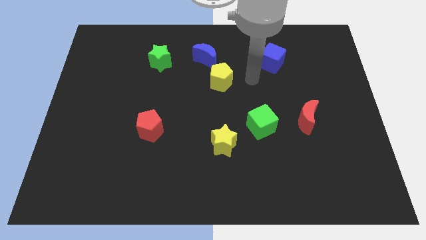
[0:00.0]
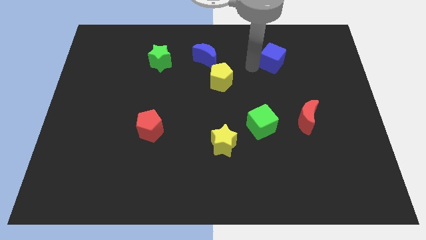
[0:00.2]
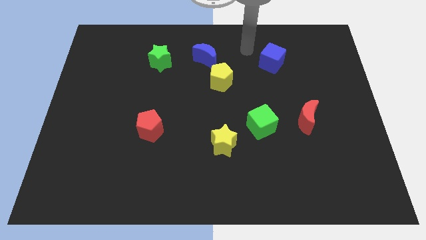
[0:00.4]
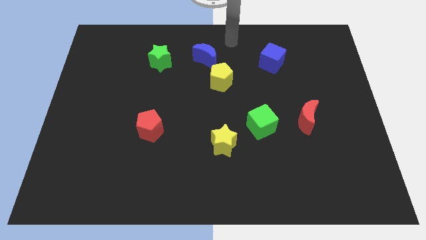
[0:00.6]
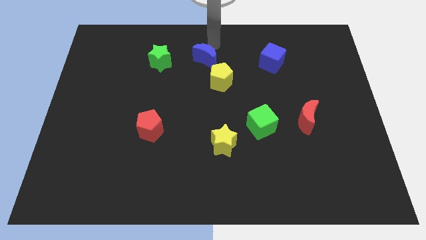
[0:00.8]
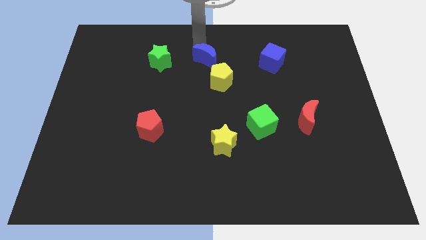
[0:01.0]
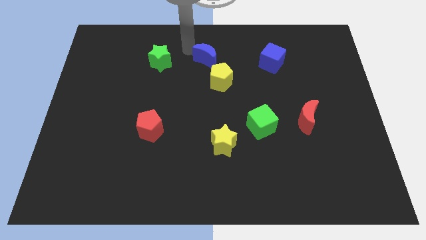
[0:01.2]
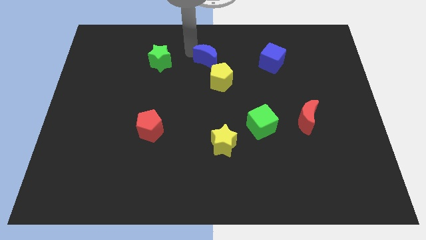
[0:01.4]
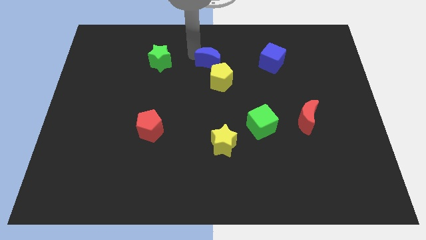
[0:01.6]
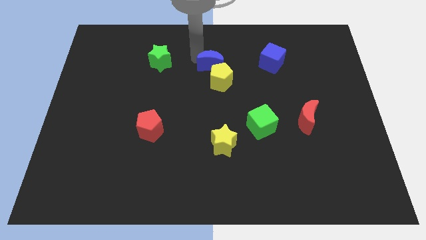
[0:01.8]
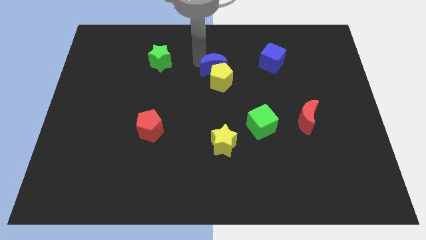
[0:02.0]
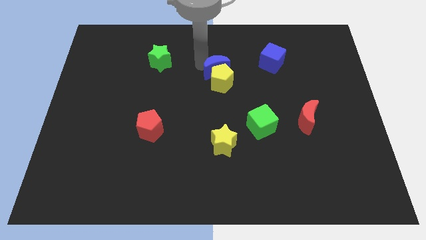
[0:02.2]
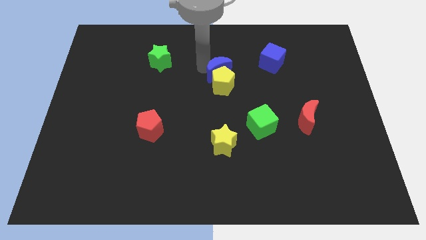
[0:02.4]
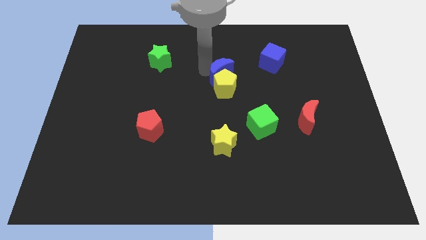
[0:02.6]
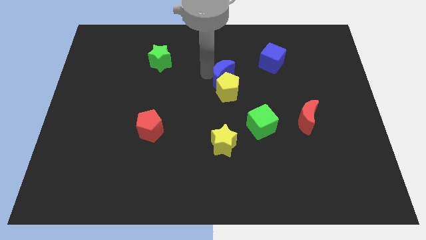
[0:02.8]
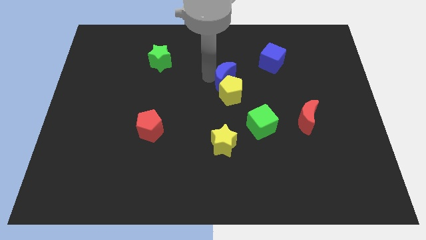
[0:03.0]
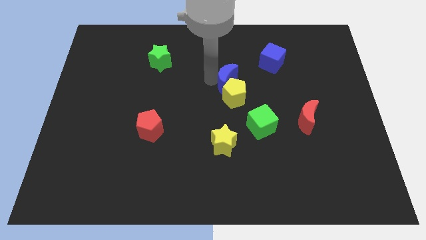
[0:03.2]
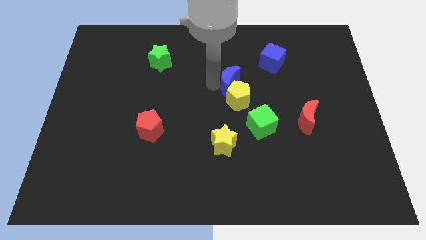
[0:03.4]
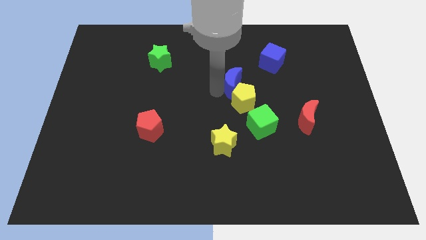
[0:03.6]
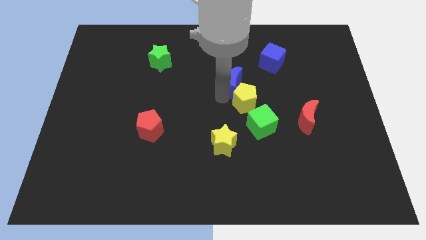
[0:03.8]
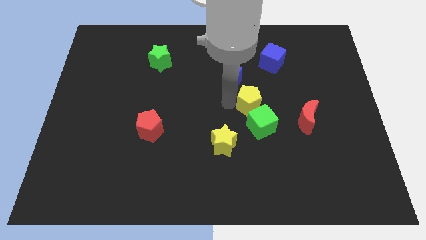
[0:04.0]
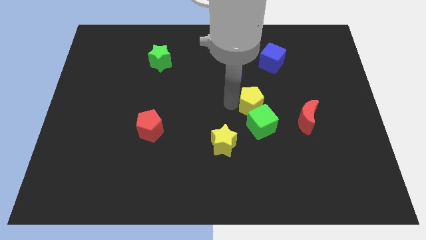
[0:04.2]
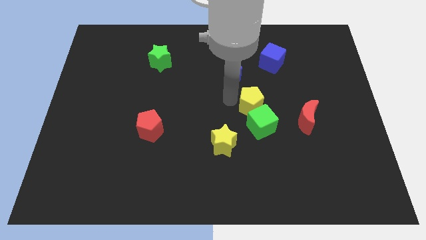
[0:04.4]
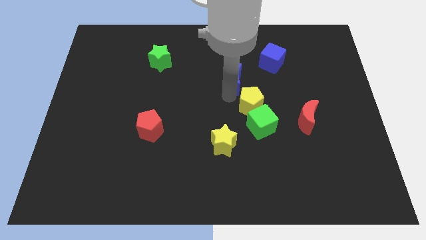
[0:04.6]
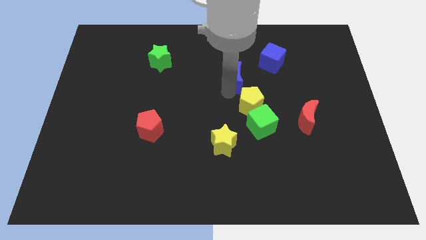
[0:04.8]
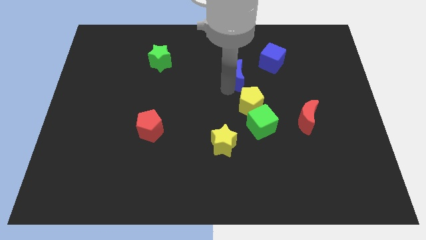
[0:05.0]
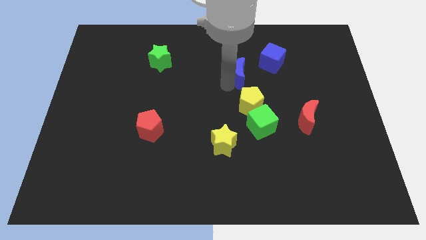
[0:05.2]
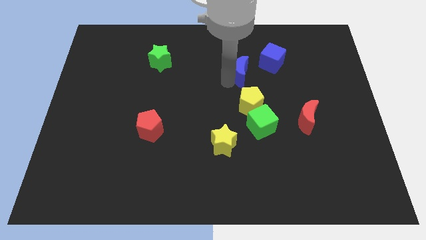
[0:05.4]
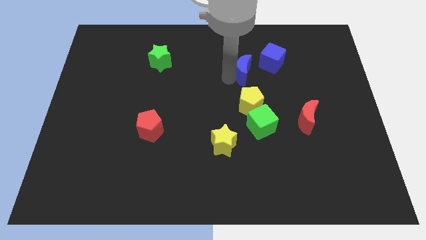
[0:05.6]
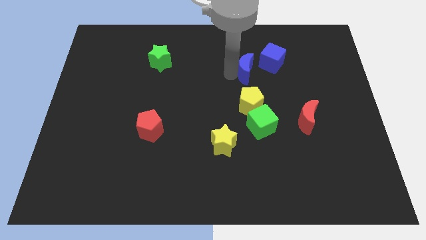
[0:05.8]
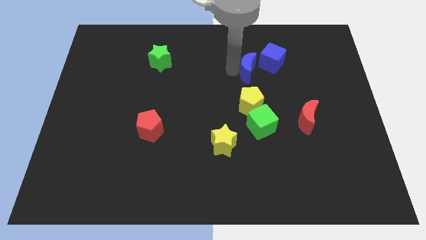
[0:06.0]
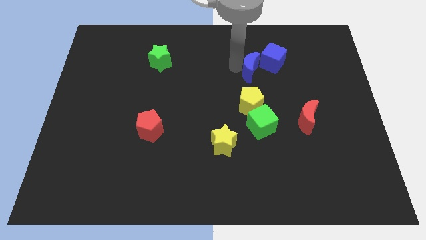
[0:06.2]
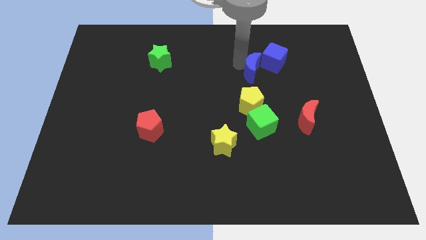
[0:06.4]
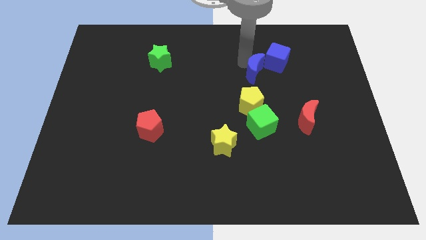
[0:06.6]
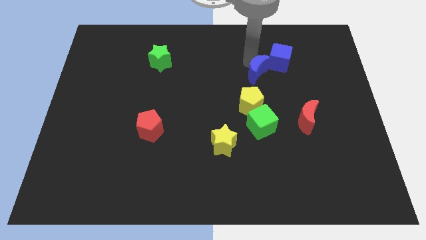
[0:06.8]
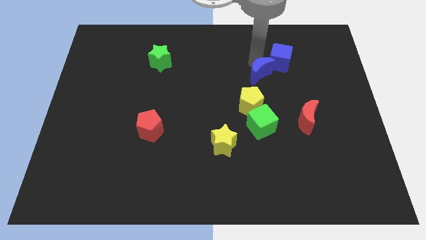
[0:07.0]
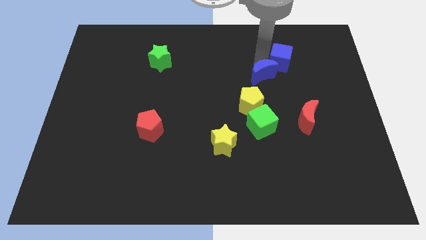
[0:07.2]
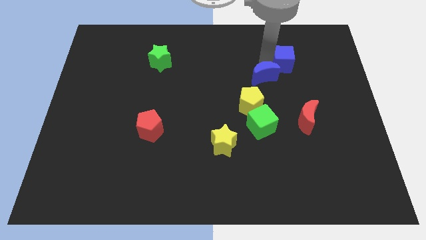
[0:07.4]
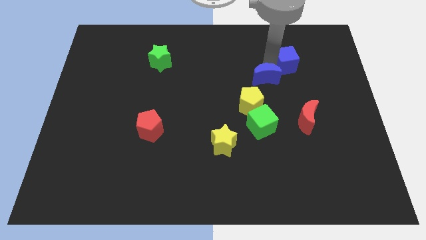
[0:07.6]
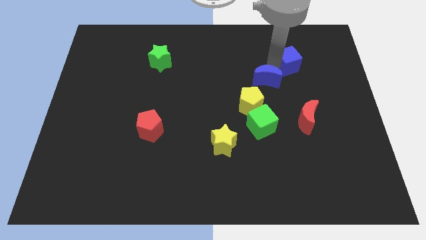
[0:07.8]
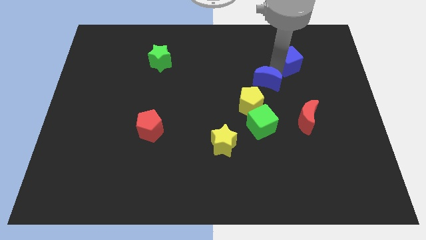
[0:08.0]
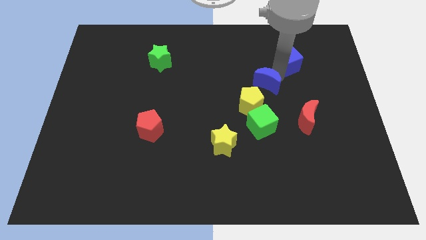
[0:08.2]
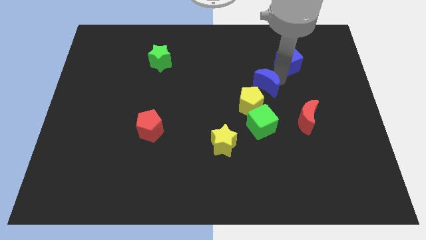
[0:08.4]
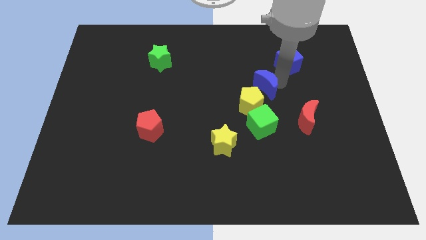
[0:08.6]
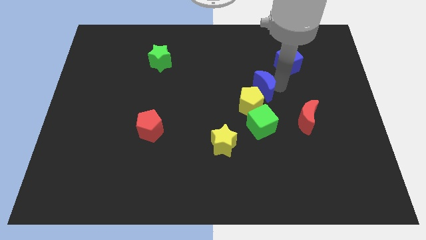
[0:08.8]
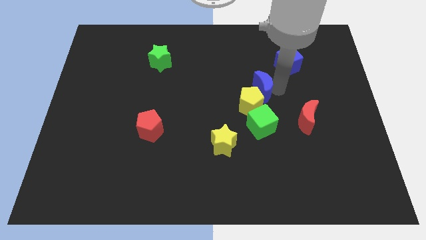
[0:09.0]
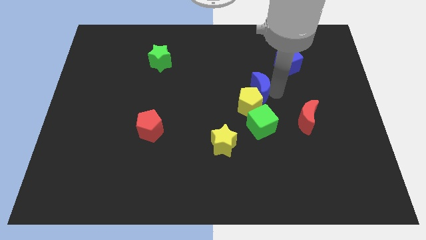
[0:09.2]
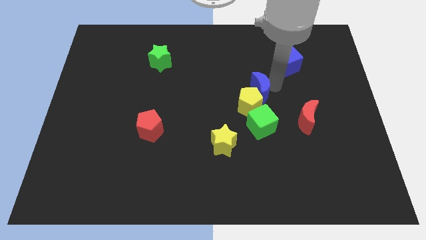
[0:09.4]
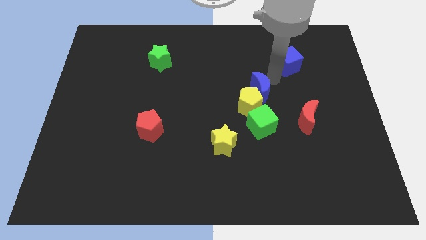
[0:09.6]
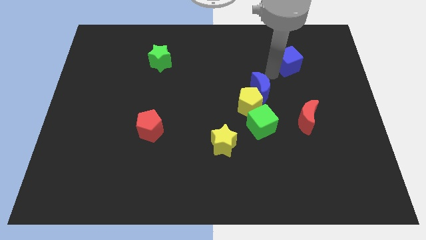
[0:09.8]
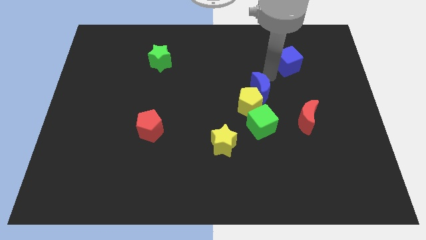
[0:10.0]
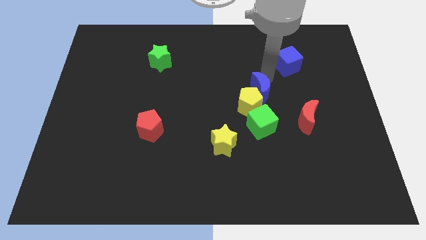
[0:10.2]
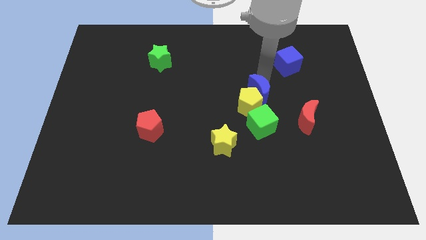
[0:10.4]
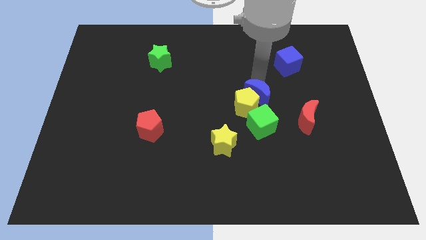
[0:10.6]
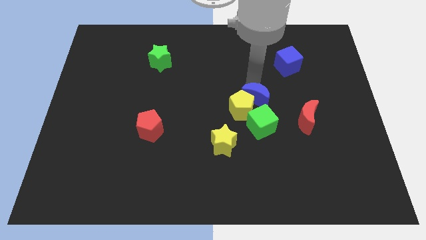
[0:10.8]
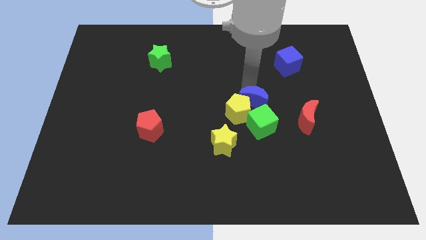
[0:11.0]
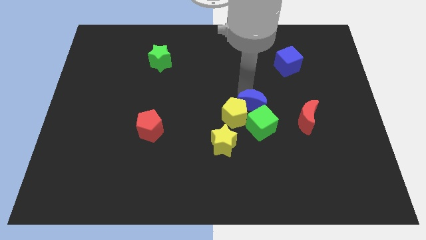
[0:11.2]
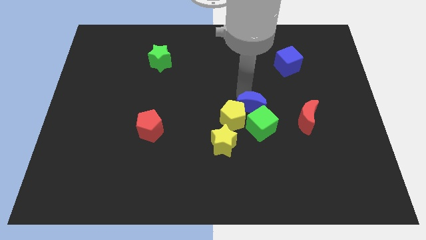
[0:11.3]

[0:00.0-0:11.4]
put the blue moon next to the green cube

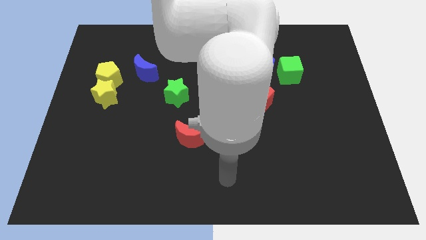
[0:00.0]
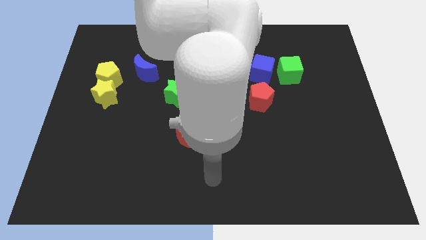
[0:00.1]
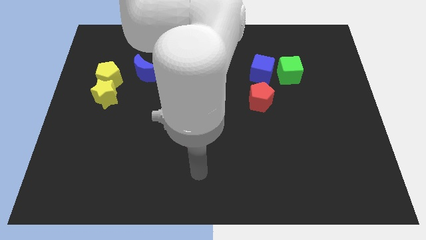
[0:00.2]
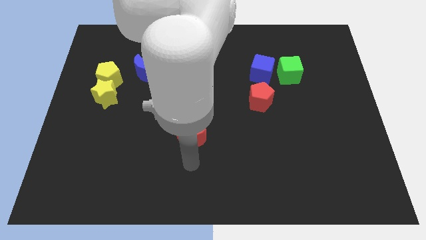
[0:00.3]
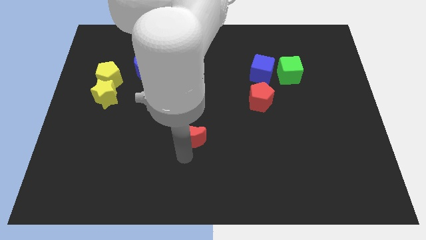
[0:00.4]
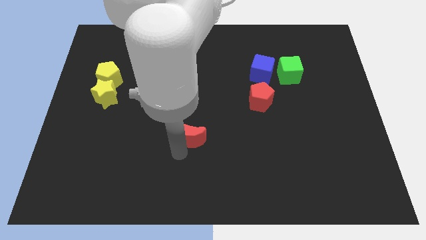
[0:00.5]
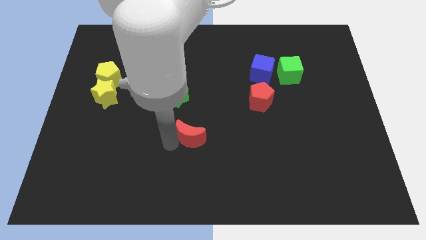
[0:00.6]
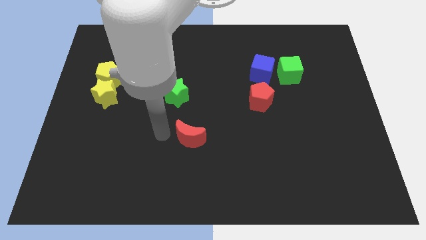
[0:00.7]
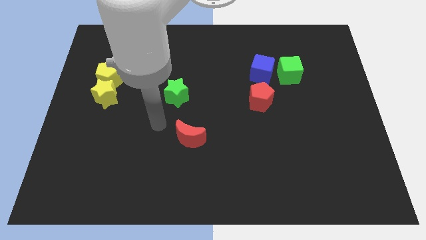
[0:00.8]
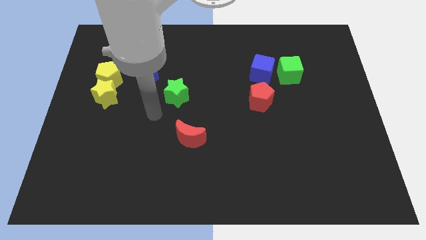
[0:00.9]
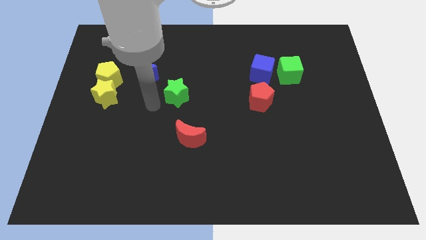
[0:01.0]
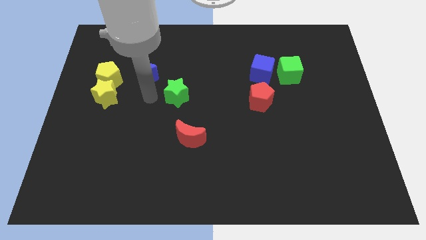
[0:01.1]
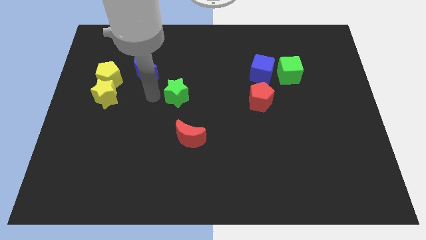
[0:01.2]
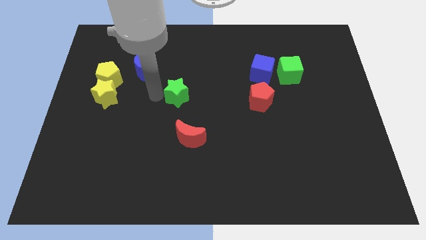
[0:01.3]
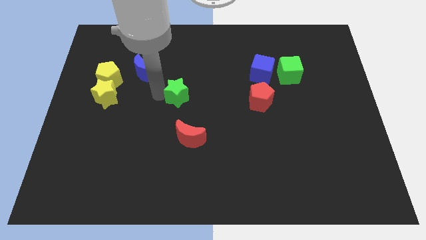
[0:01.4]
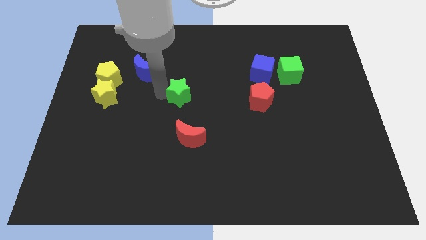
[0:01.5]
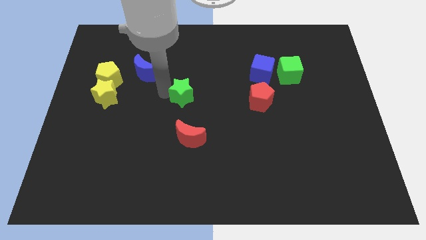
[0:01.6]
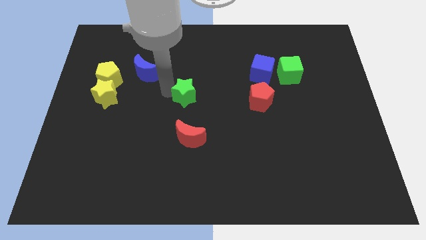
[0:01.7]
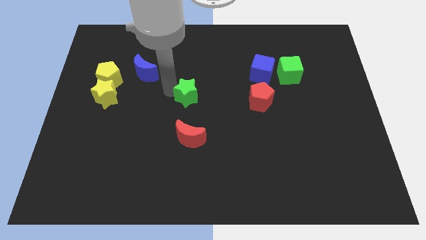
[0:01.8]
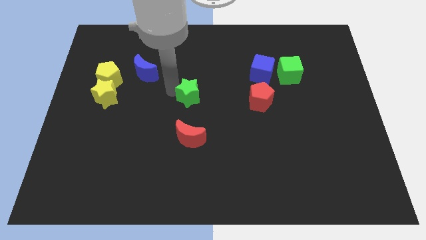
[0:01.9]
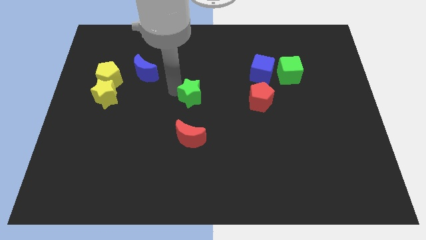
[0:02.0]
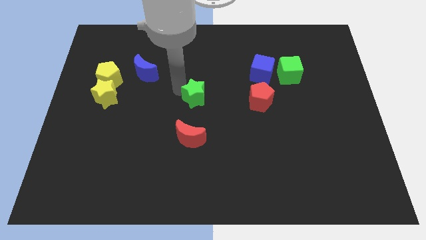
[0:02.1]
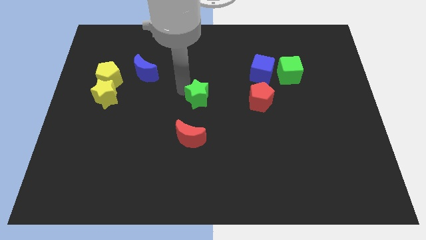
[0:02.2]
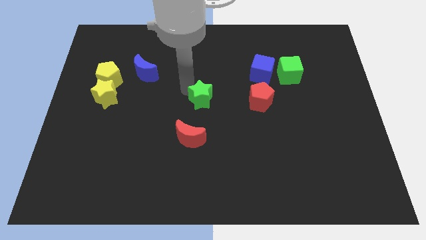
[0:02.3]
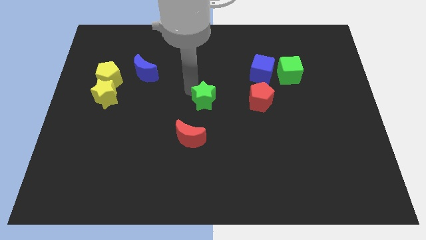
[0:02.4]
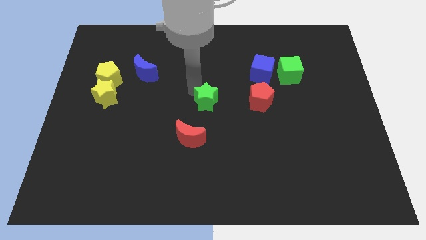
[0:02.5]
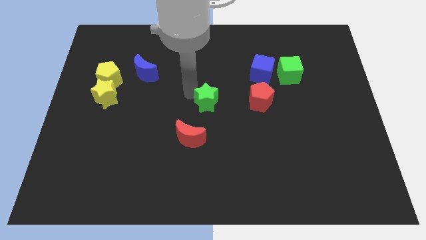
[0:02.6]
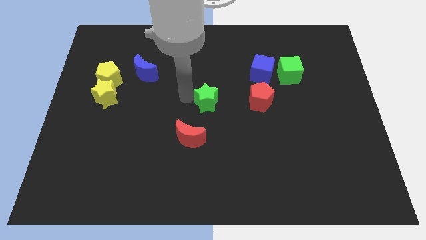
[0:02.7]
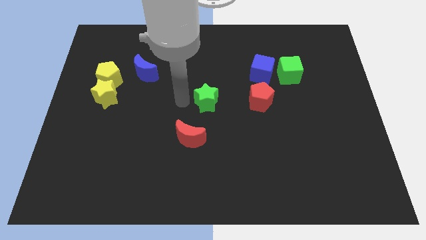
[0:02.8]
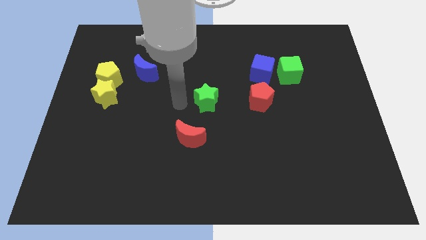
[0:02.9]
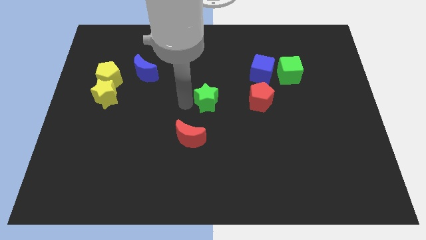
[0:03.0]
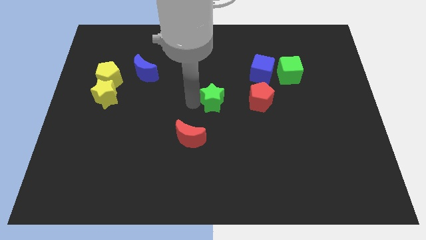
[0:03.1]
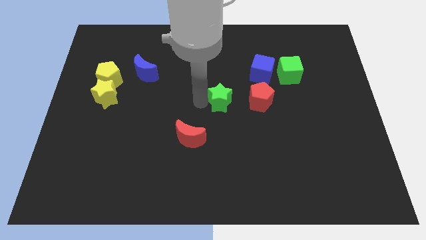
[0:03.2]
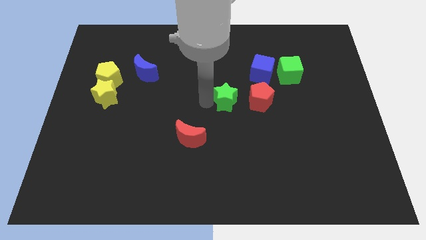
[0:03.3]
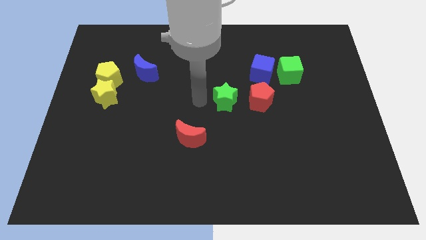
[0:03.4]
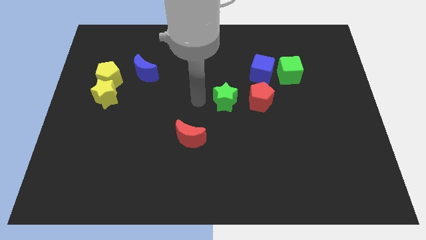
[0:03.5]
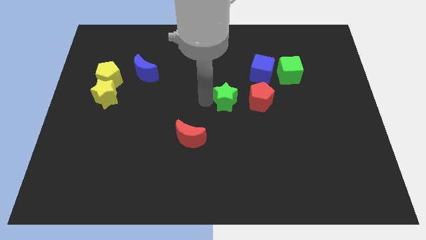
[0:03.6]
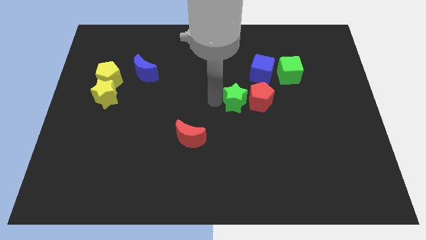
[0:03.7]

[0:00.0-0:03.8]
slide the green star towards the red pentagon
